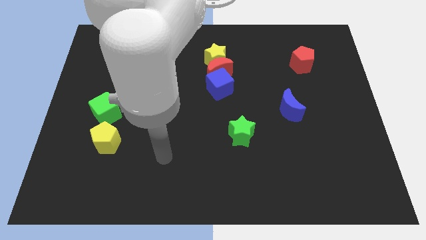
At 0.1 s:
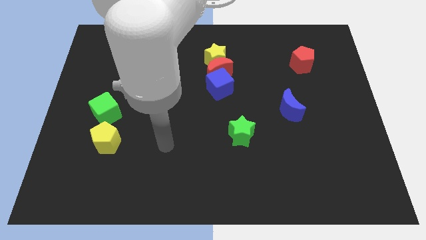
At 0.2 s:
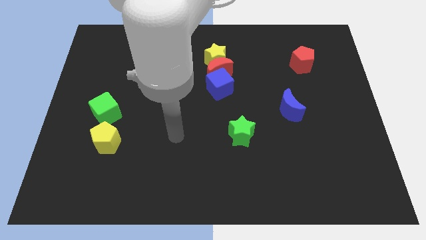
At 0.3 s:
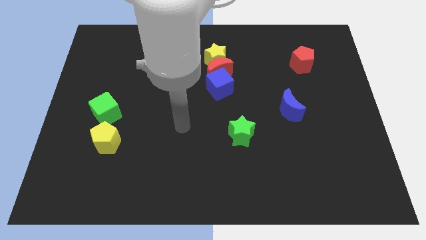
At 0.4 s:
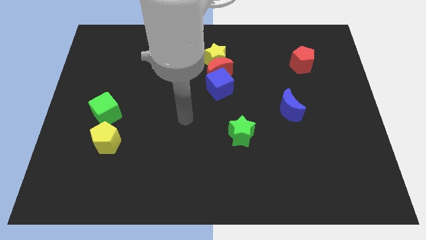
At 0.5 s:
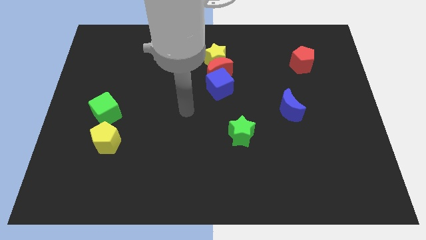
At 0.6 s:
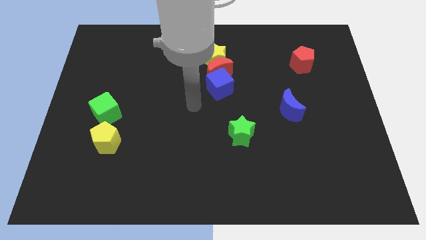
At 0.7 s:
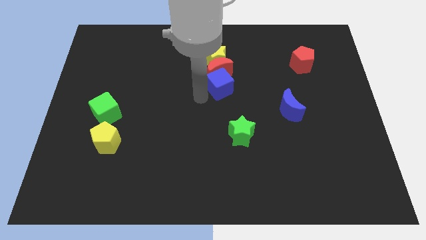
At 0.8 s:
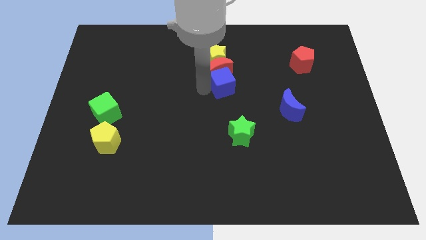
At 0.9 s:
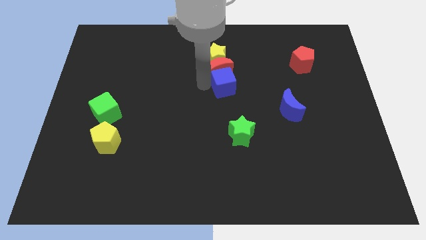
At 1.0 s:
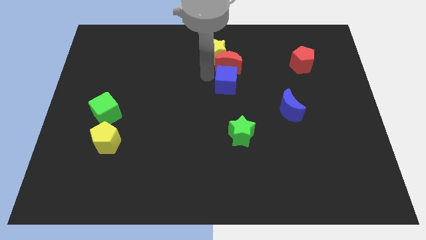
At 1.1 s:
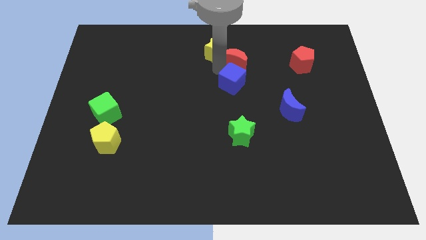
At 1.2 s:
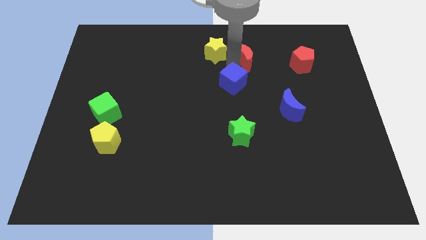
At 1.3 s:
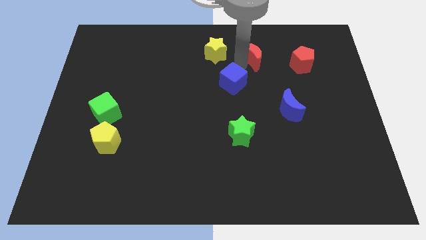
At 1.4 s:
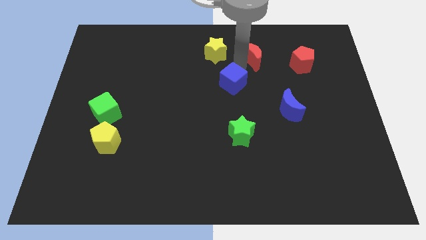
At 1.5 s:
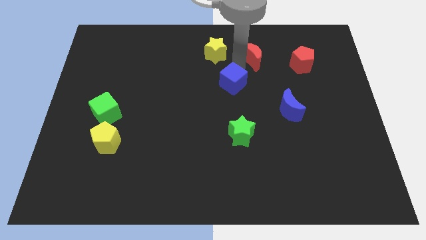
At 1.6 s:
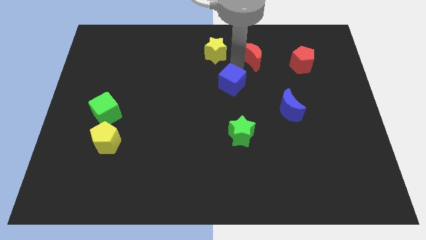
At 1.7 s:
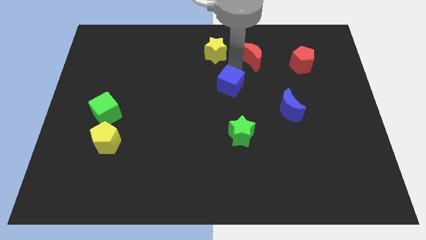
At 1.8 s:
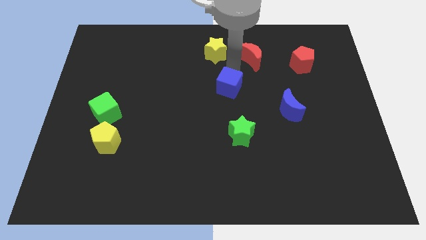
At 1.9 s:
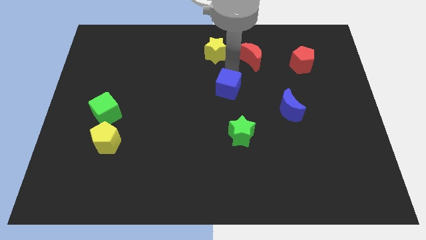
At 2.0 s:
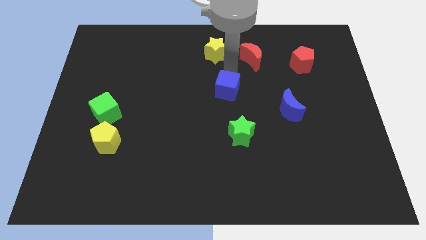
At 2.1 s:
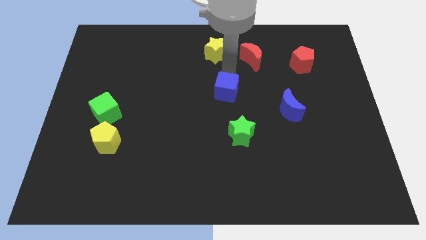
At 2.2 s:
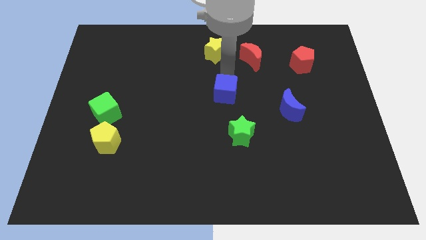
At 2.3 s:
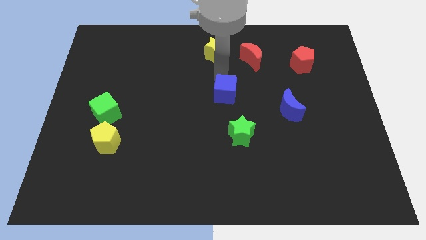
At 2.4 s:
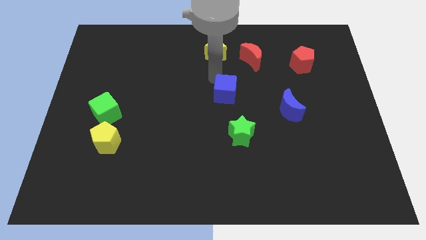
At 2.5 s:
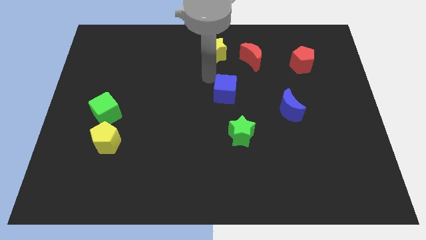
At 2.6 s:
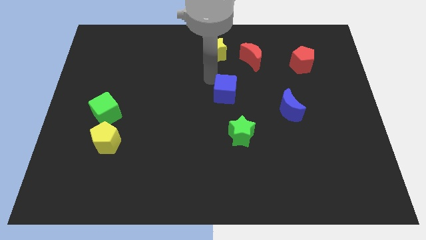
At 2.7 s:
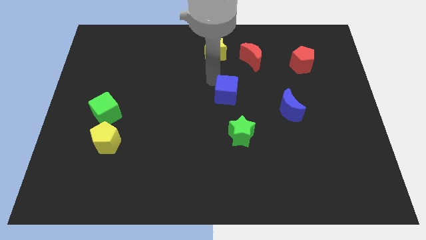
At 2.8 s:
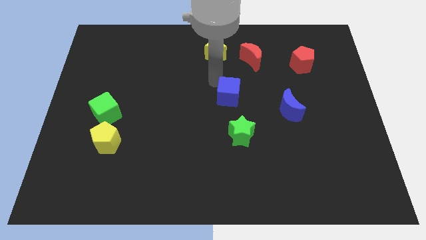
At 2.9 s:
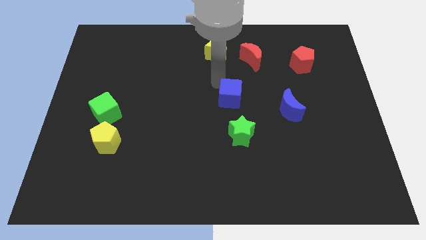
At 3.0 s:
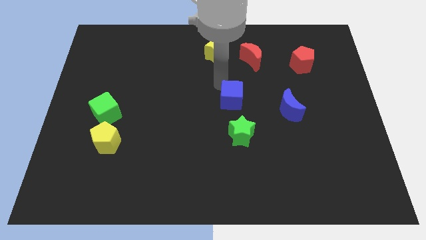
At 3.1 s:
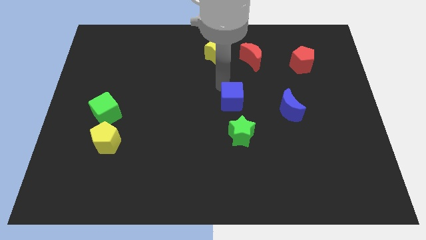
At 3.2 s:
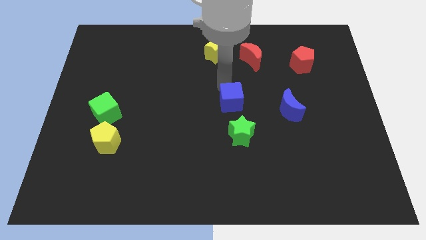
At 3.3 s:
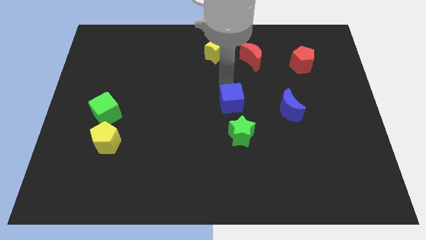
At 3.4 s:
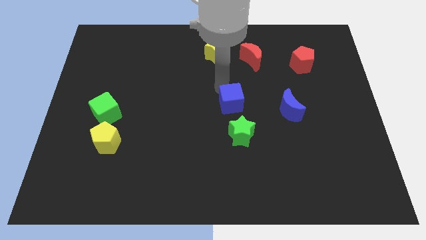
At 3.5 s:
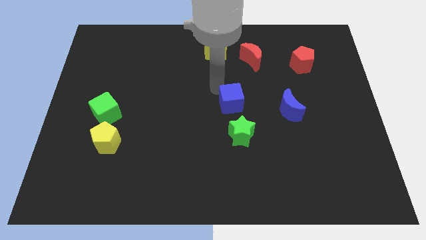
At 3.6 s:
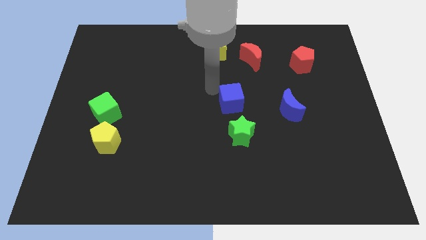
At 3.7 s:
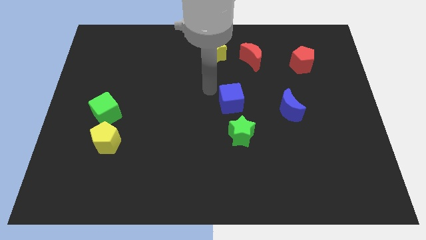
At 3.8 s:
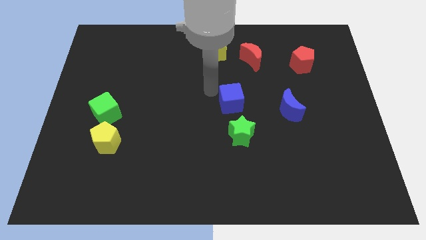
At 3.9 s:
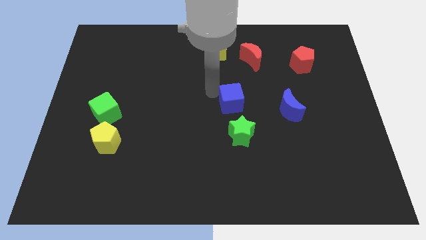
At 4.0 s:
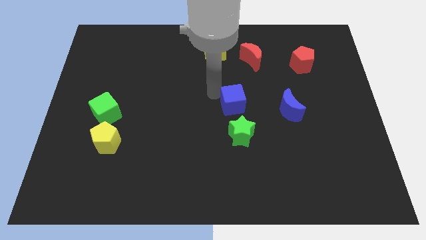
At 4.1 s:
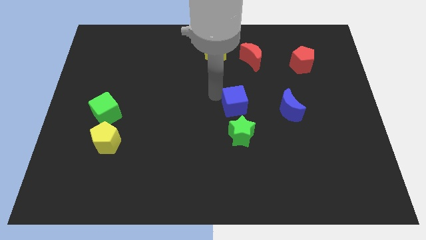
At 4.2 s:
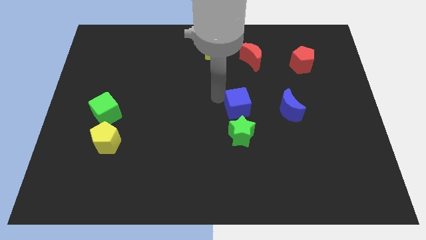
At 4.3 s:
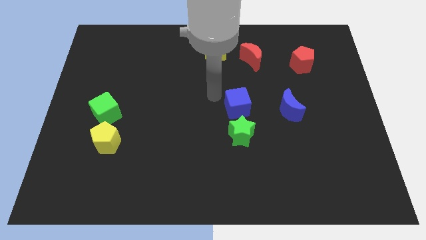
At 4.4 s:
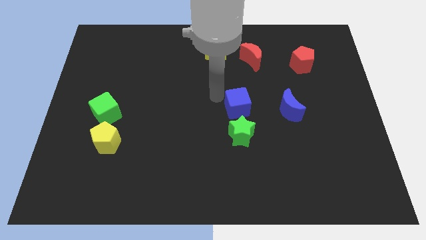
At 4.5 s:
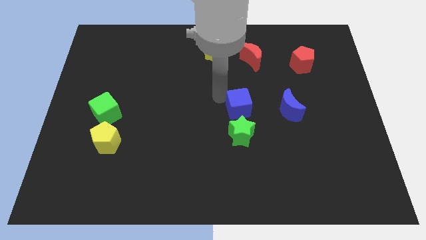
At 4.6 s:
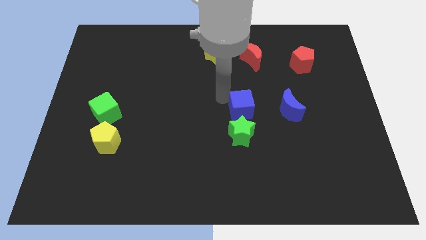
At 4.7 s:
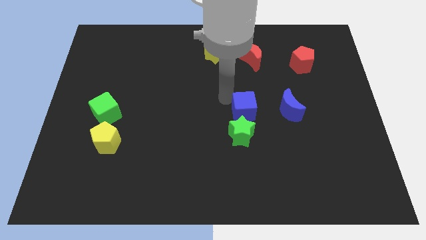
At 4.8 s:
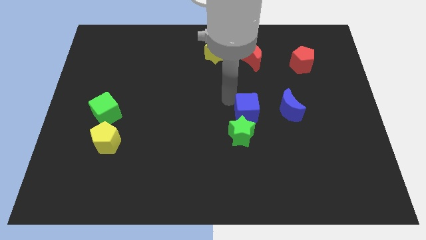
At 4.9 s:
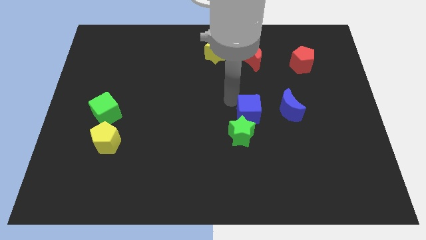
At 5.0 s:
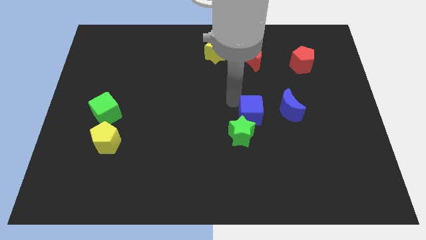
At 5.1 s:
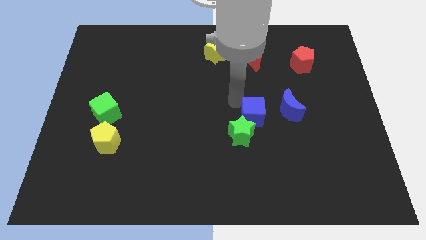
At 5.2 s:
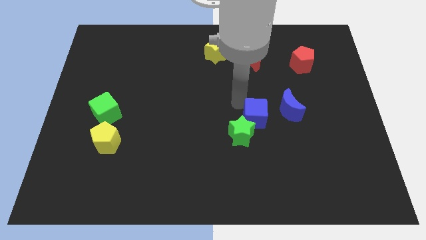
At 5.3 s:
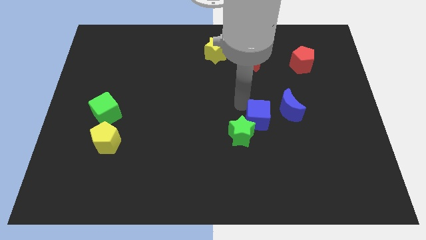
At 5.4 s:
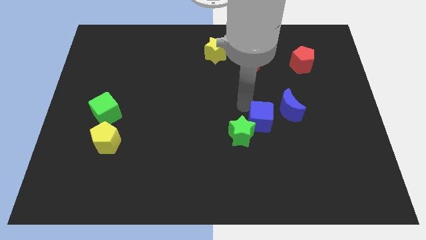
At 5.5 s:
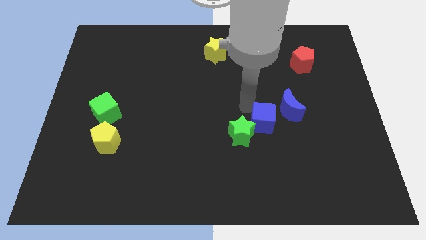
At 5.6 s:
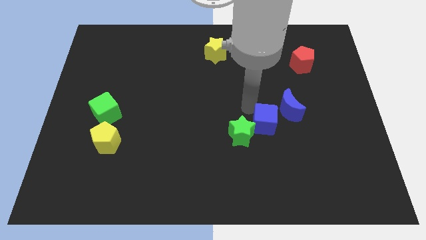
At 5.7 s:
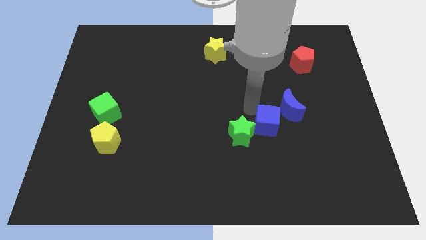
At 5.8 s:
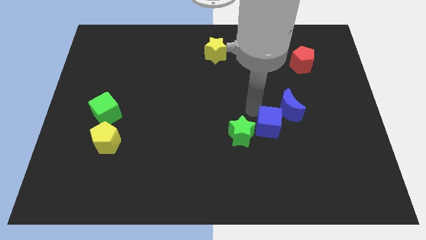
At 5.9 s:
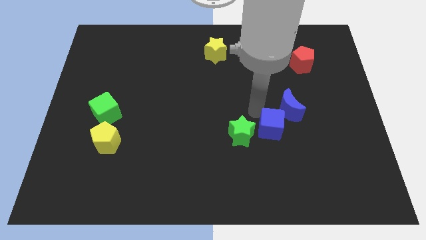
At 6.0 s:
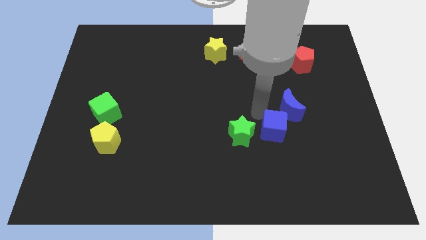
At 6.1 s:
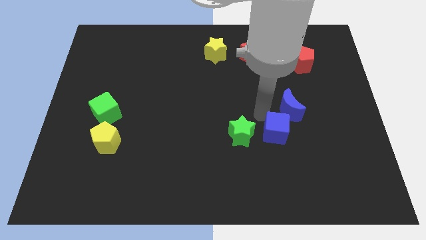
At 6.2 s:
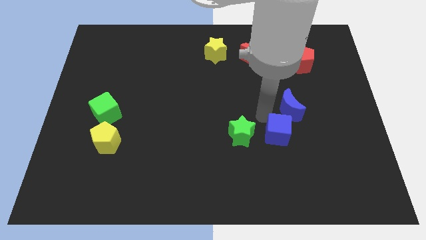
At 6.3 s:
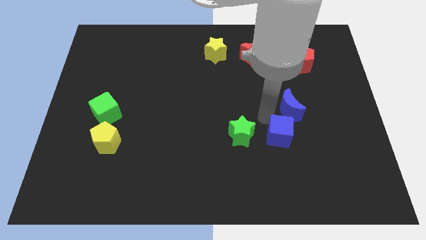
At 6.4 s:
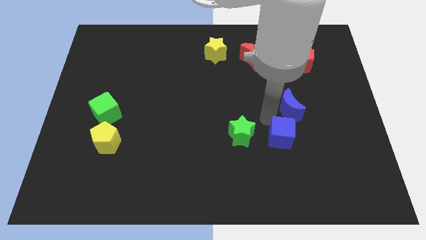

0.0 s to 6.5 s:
slide the blue cube diagonally down and to the right

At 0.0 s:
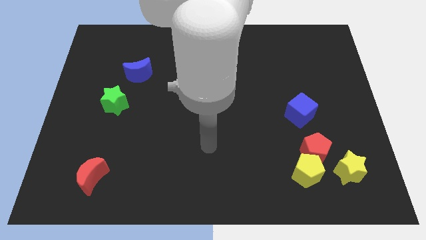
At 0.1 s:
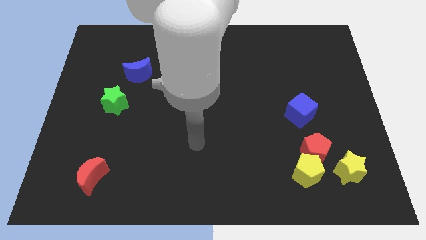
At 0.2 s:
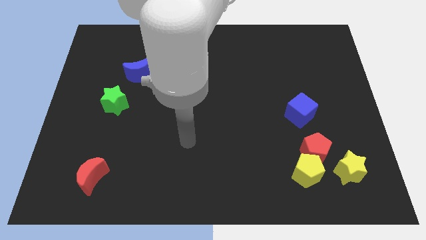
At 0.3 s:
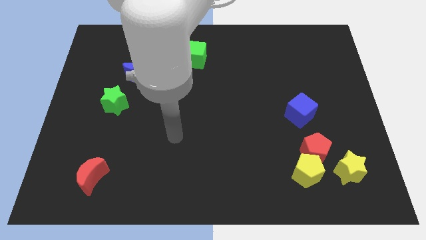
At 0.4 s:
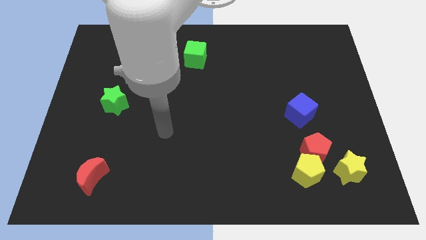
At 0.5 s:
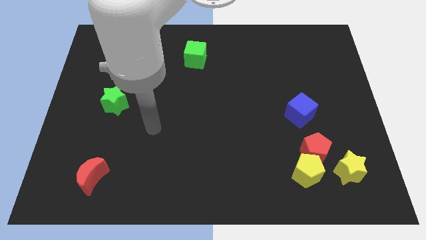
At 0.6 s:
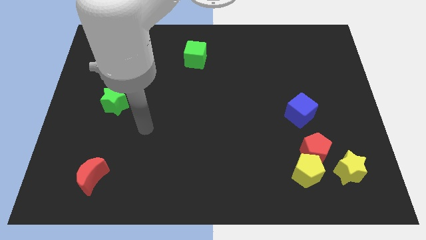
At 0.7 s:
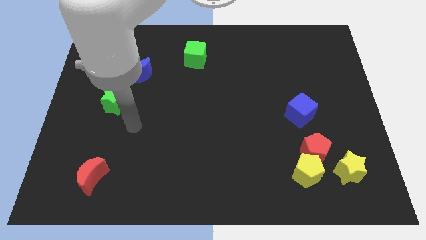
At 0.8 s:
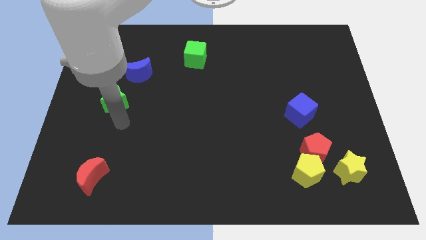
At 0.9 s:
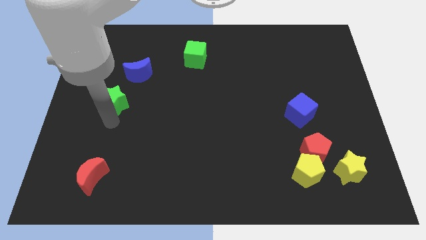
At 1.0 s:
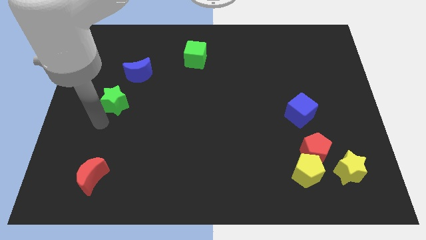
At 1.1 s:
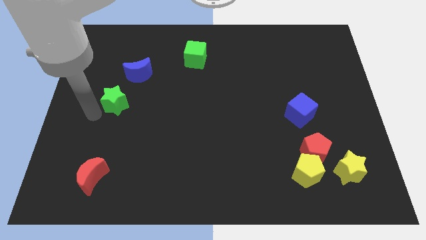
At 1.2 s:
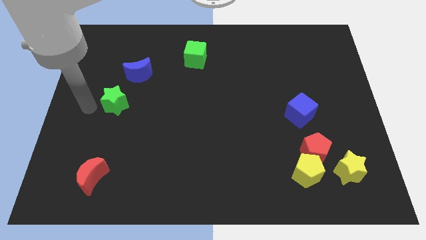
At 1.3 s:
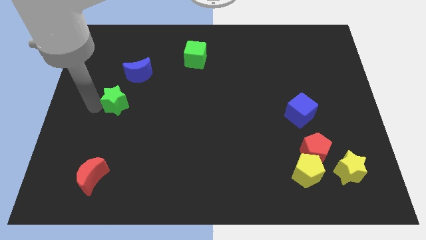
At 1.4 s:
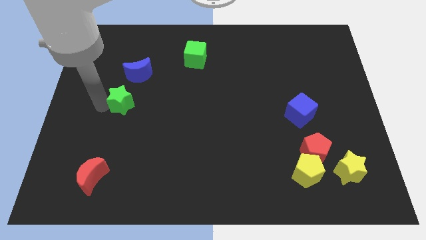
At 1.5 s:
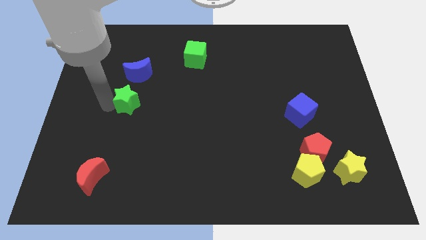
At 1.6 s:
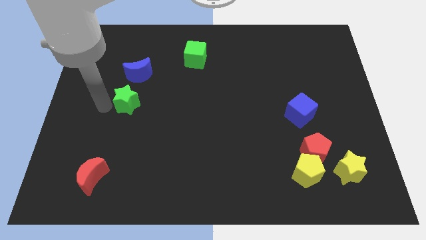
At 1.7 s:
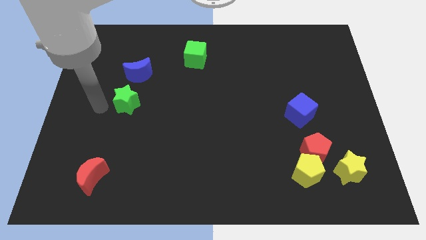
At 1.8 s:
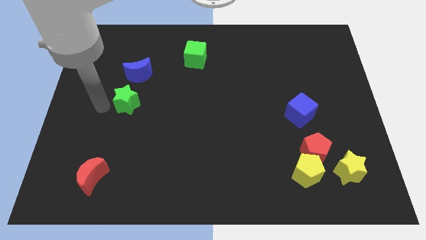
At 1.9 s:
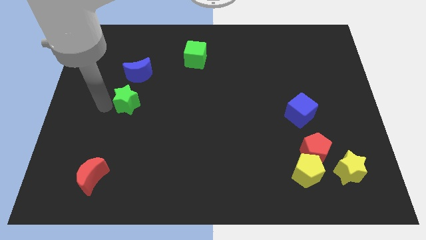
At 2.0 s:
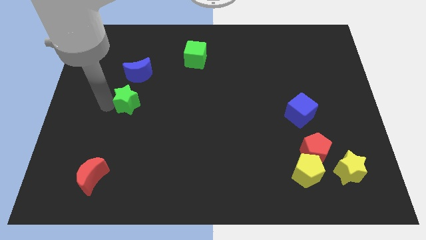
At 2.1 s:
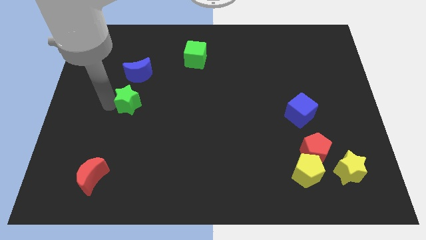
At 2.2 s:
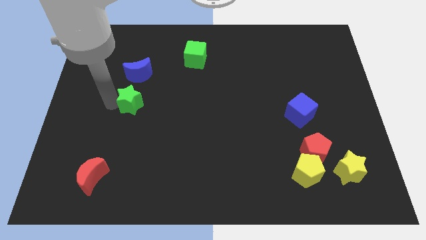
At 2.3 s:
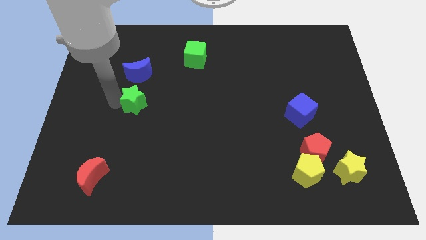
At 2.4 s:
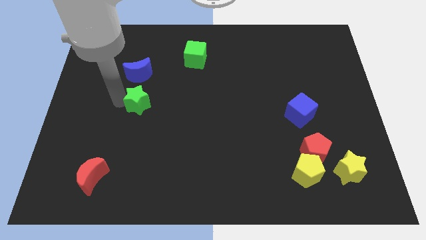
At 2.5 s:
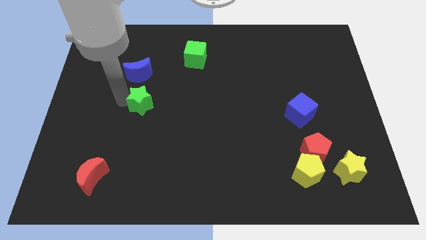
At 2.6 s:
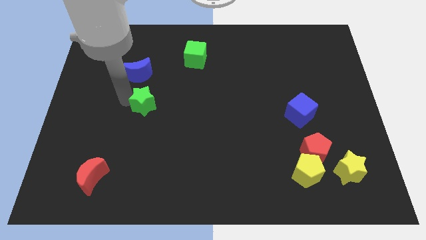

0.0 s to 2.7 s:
slide the green star slightly to the right
